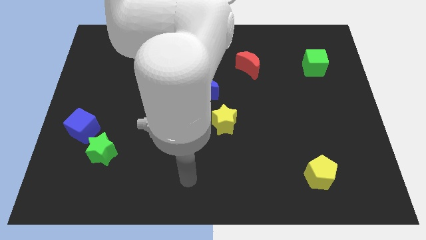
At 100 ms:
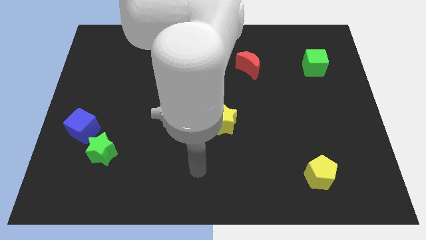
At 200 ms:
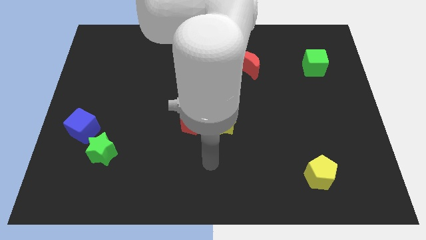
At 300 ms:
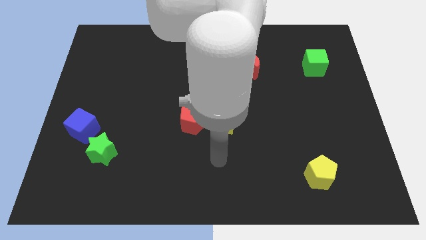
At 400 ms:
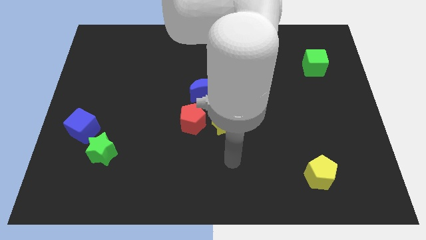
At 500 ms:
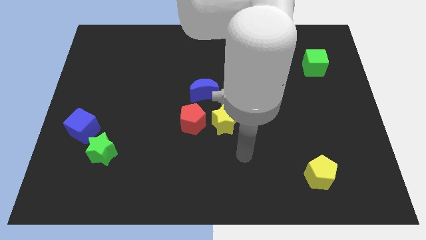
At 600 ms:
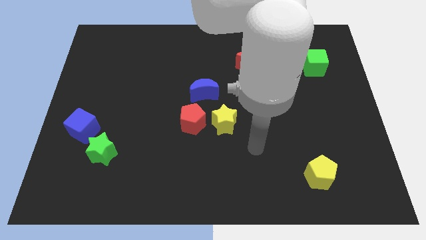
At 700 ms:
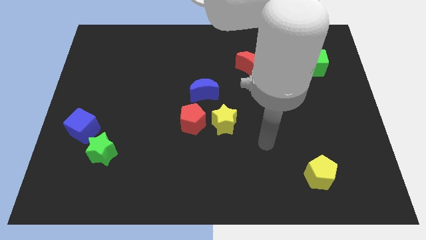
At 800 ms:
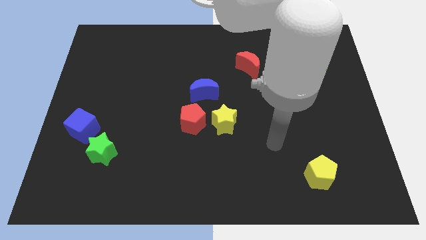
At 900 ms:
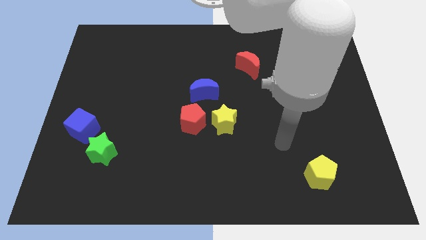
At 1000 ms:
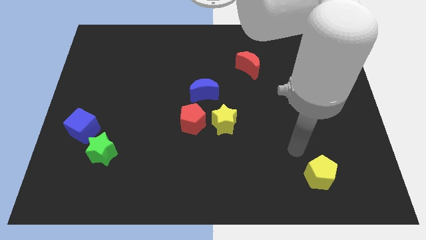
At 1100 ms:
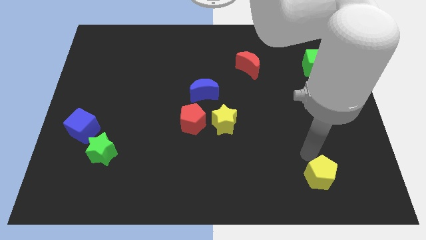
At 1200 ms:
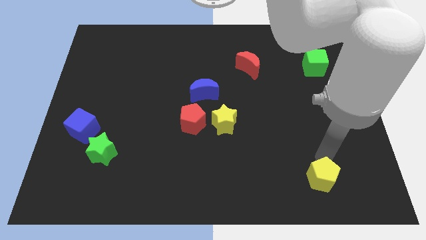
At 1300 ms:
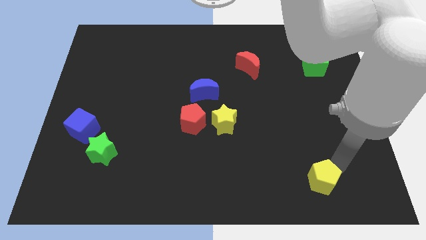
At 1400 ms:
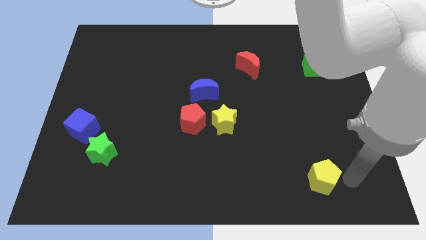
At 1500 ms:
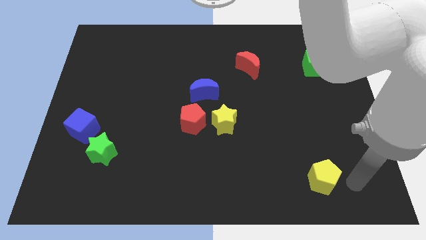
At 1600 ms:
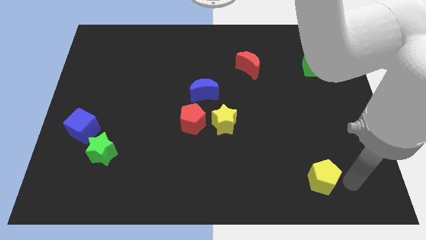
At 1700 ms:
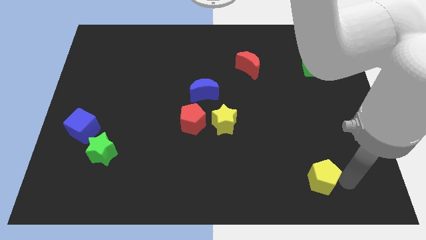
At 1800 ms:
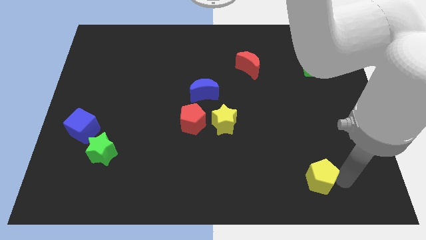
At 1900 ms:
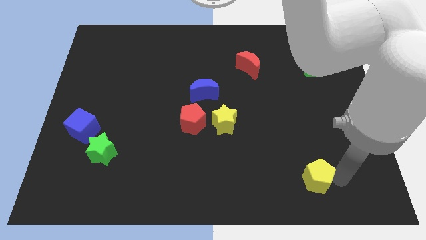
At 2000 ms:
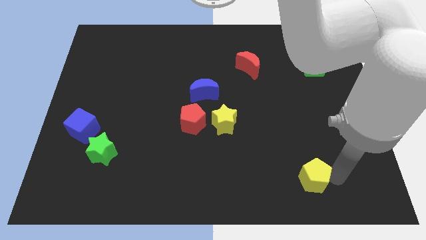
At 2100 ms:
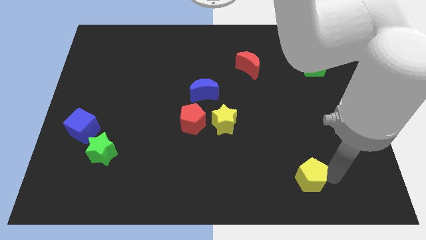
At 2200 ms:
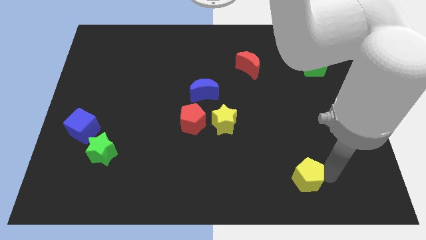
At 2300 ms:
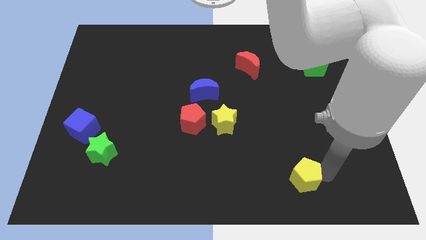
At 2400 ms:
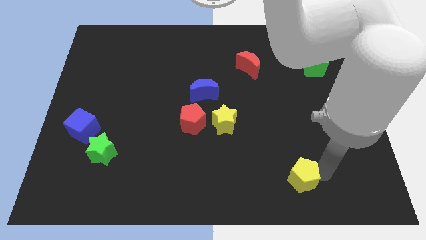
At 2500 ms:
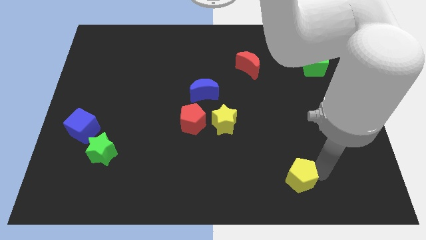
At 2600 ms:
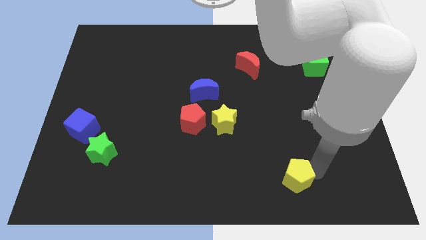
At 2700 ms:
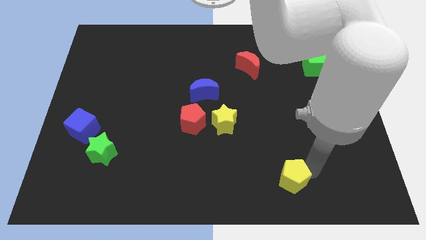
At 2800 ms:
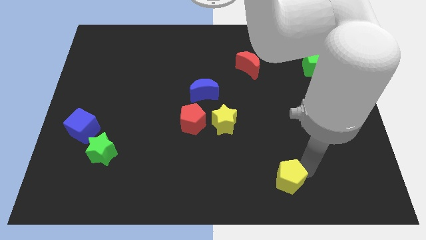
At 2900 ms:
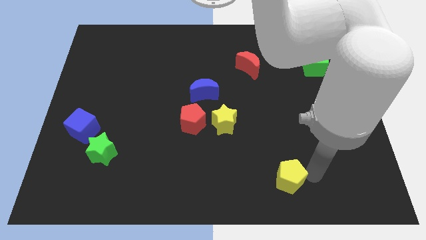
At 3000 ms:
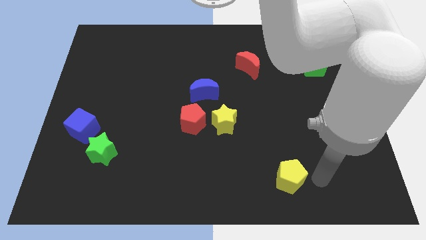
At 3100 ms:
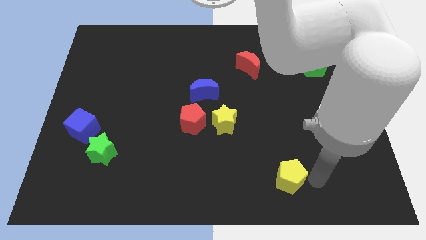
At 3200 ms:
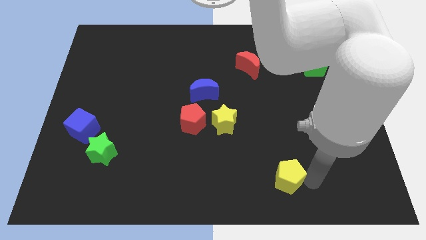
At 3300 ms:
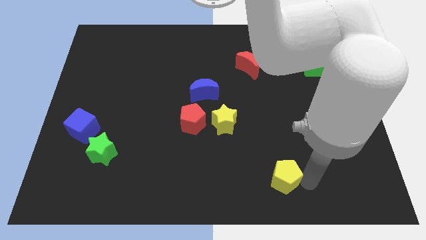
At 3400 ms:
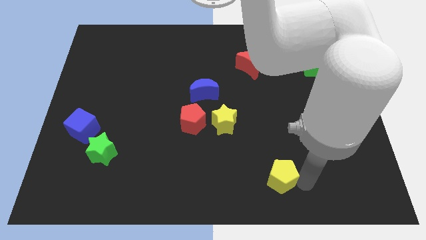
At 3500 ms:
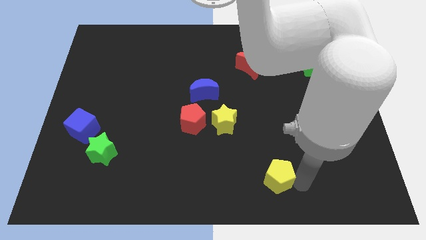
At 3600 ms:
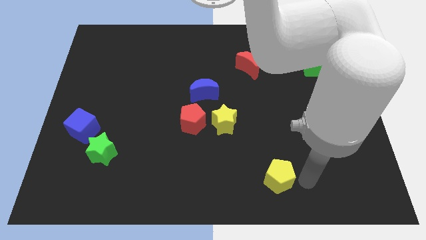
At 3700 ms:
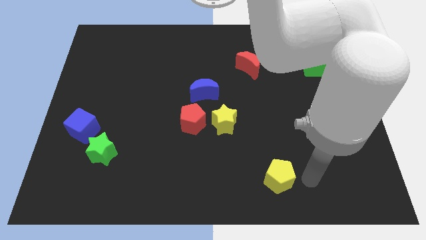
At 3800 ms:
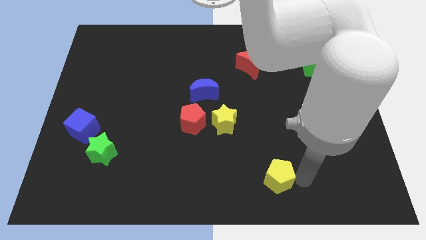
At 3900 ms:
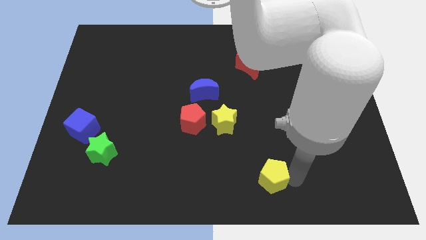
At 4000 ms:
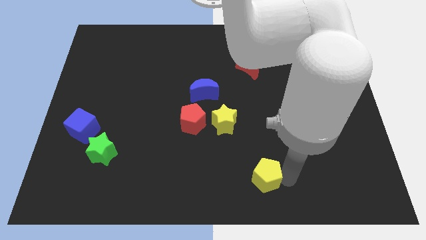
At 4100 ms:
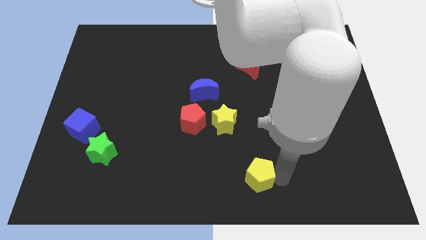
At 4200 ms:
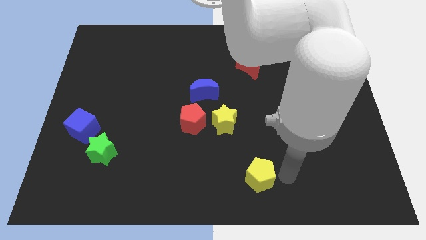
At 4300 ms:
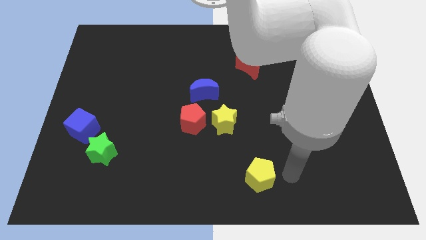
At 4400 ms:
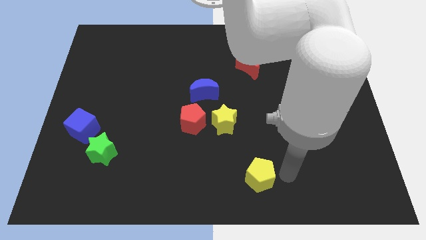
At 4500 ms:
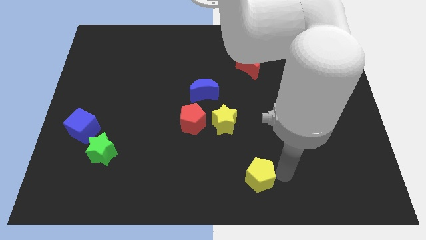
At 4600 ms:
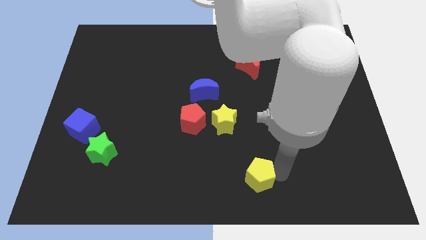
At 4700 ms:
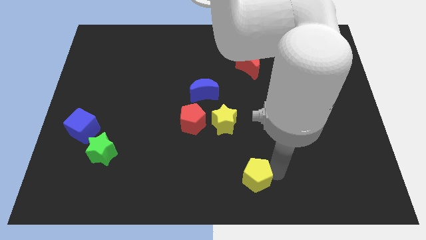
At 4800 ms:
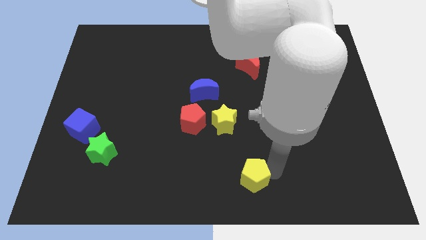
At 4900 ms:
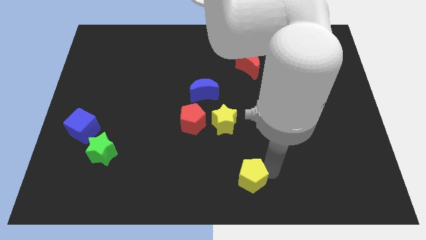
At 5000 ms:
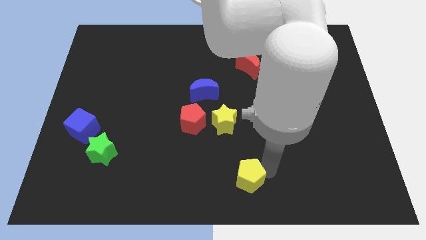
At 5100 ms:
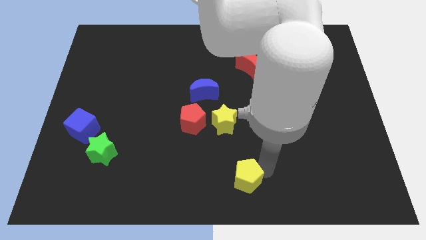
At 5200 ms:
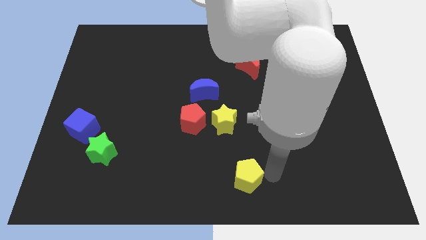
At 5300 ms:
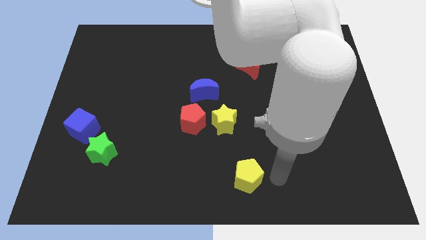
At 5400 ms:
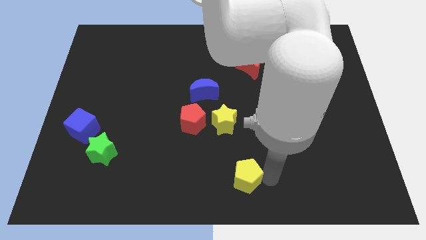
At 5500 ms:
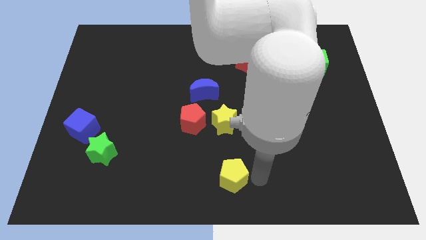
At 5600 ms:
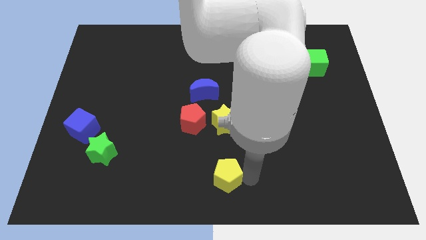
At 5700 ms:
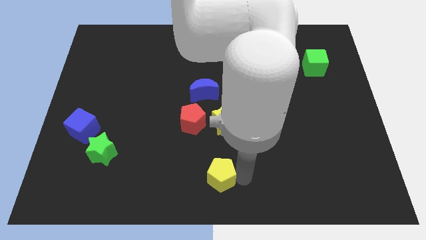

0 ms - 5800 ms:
slide the yellow pentagon to the left

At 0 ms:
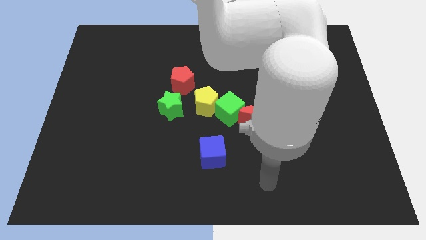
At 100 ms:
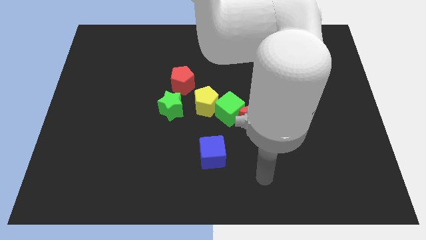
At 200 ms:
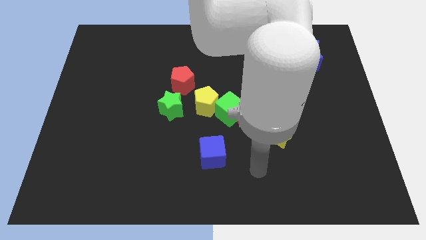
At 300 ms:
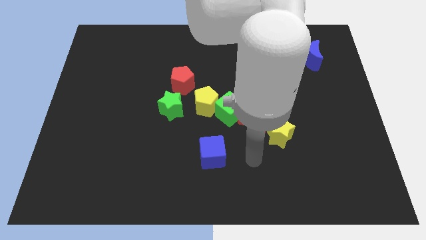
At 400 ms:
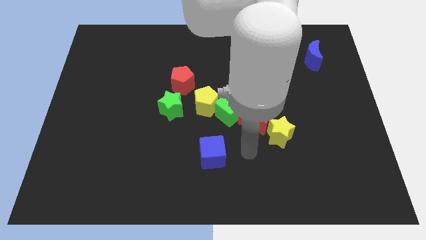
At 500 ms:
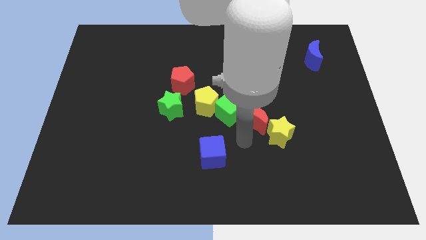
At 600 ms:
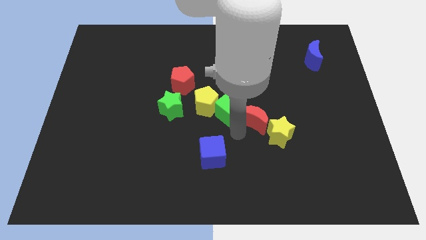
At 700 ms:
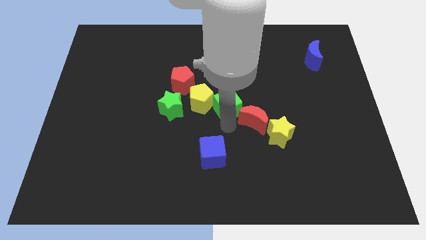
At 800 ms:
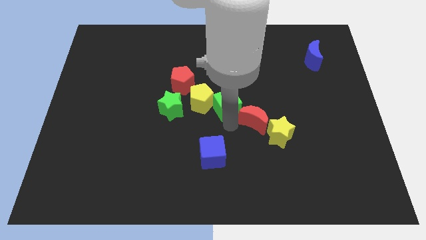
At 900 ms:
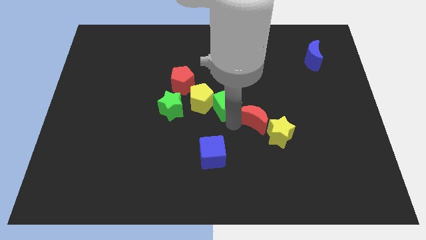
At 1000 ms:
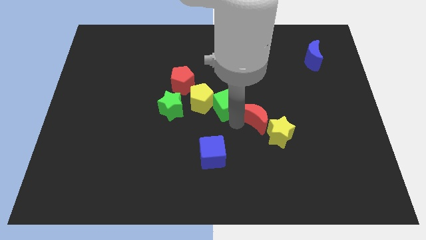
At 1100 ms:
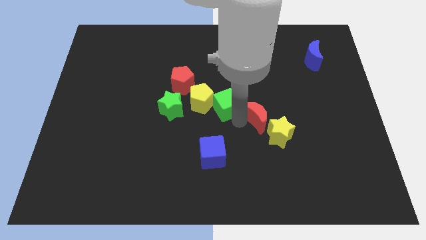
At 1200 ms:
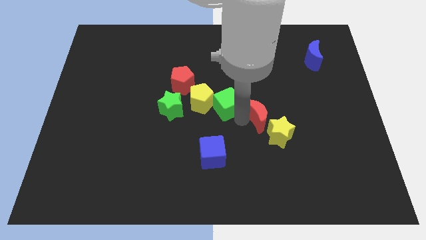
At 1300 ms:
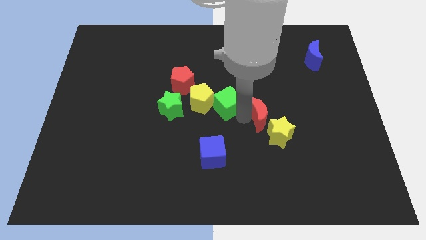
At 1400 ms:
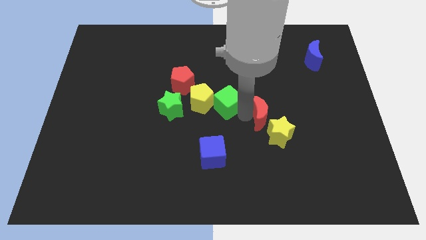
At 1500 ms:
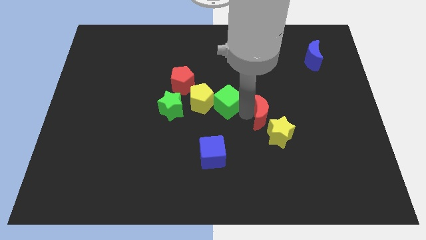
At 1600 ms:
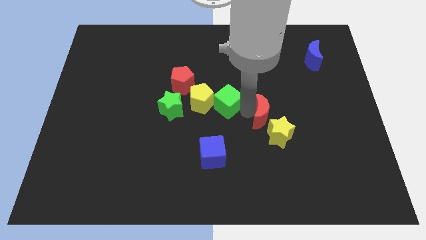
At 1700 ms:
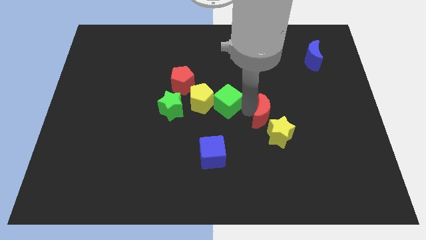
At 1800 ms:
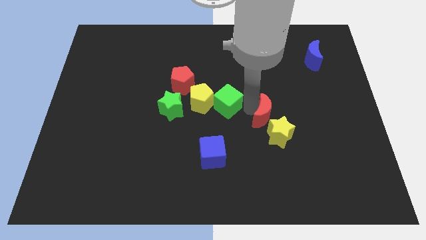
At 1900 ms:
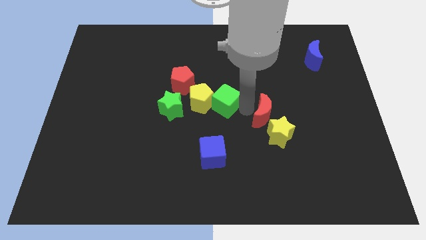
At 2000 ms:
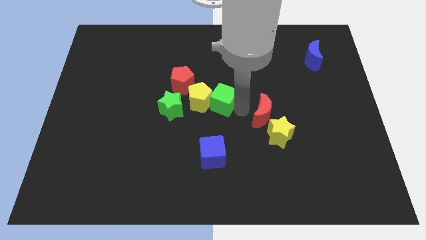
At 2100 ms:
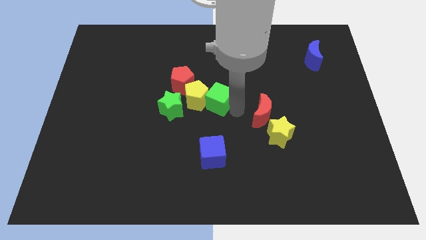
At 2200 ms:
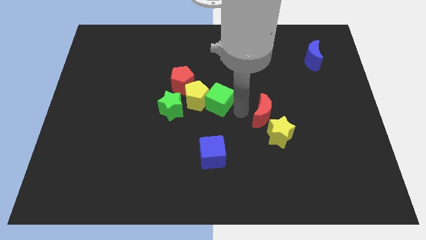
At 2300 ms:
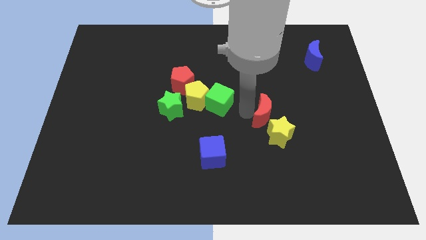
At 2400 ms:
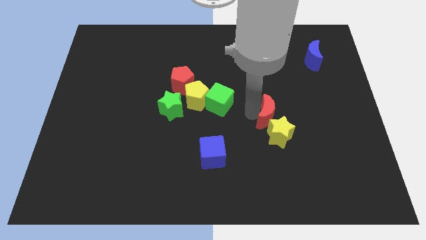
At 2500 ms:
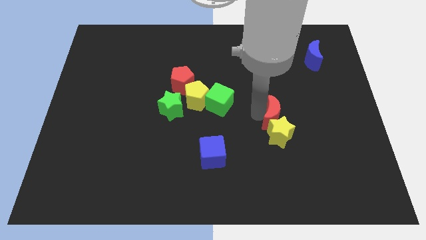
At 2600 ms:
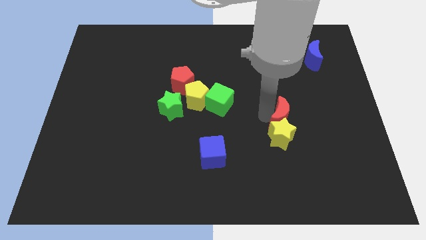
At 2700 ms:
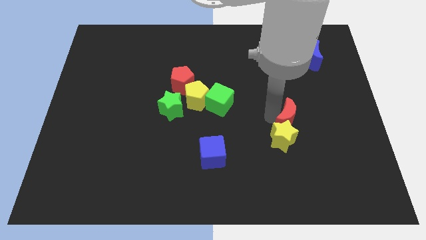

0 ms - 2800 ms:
push the red moon right a bit

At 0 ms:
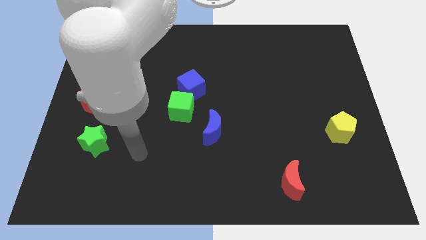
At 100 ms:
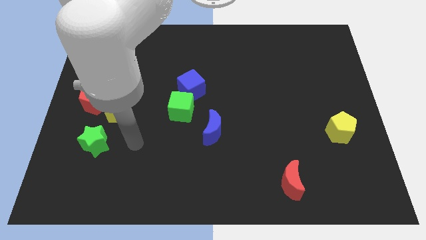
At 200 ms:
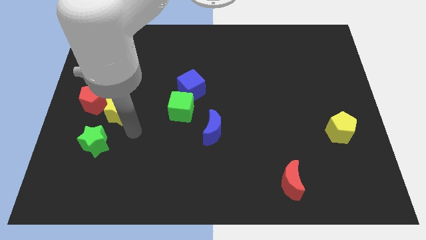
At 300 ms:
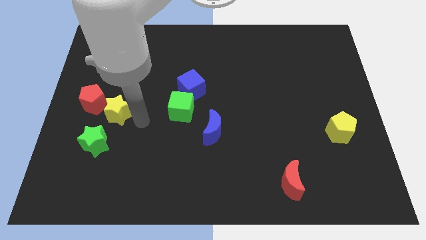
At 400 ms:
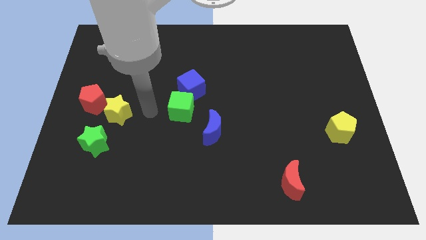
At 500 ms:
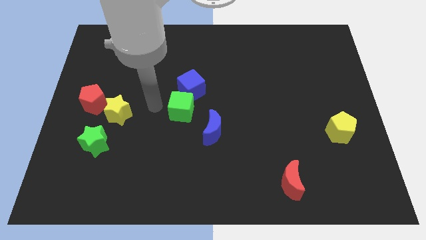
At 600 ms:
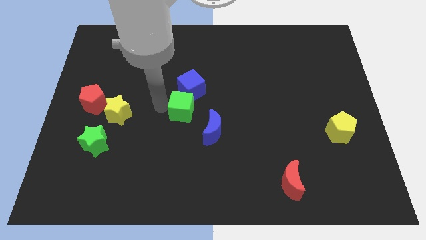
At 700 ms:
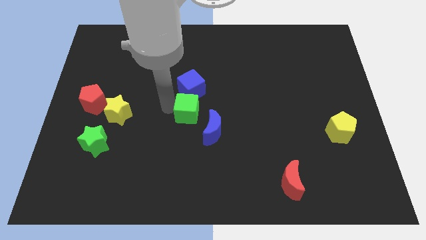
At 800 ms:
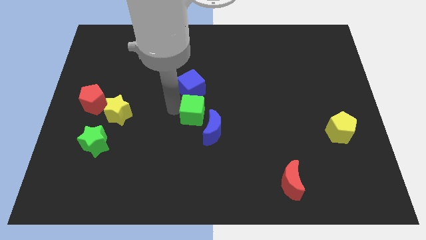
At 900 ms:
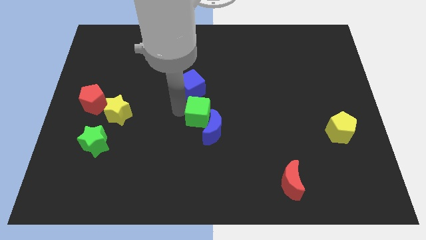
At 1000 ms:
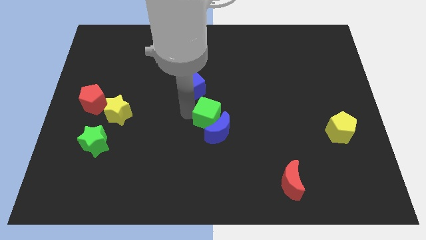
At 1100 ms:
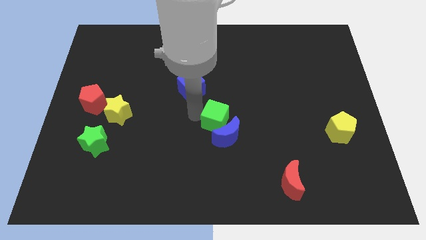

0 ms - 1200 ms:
move the green cube diagonally down and right a little bit
